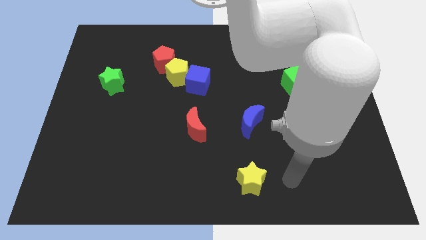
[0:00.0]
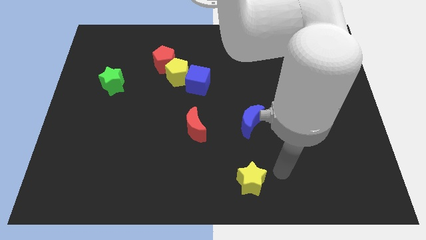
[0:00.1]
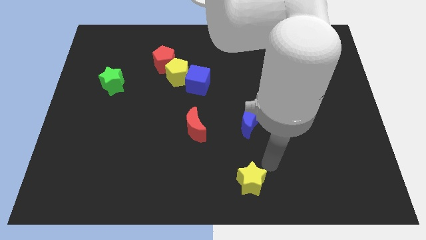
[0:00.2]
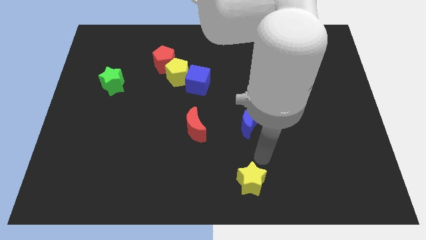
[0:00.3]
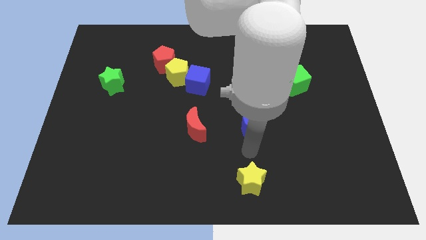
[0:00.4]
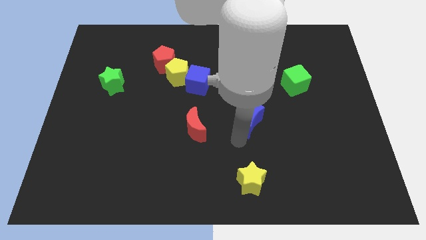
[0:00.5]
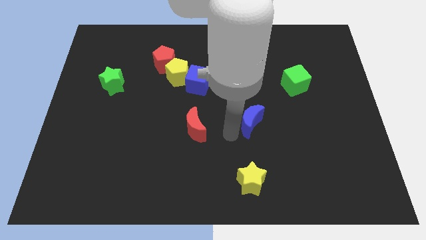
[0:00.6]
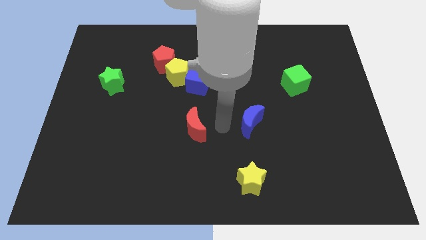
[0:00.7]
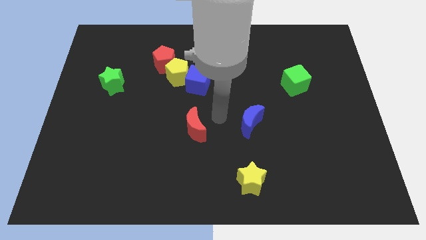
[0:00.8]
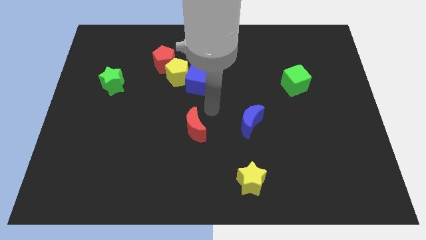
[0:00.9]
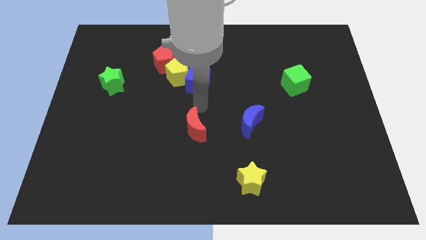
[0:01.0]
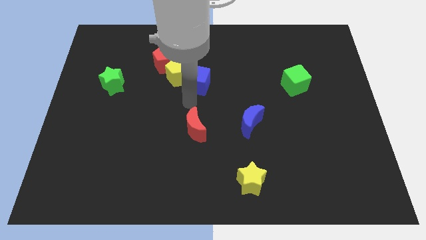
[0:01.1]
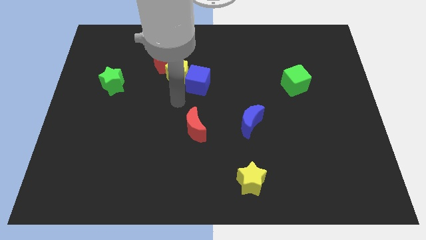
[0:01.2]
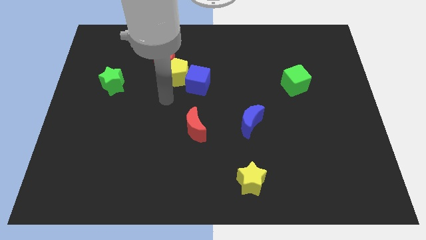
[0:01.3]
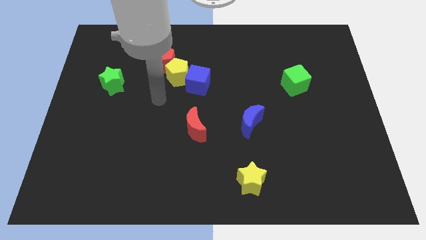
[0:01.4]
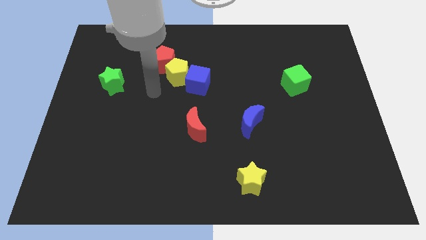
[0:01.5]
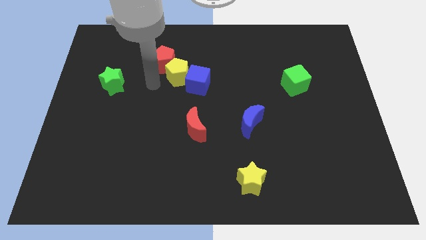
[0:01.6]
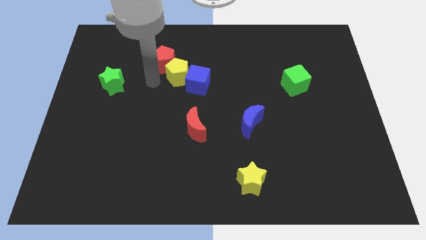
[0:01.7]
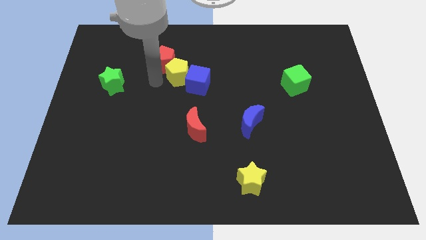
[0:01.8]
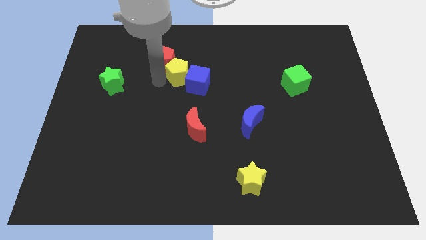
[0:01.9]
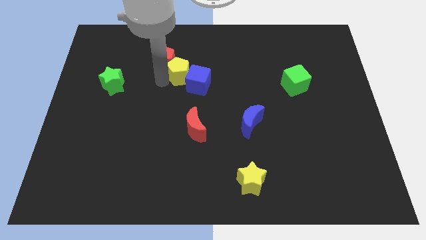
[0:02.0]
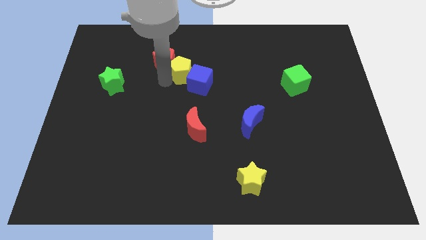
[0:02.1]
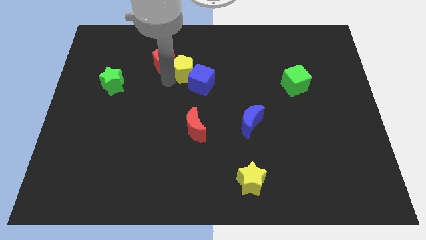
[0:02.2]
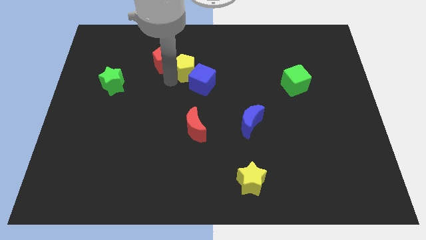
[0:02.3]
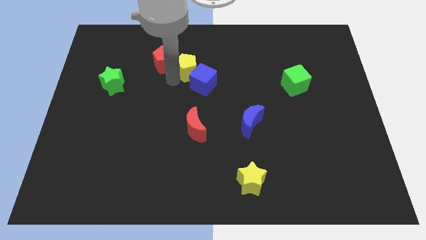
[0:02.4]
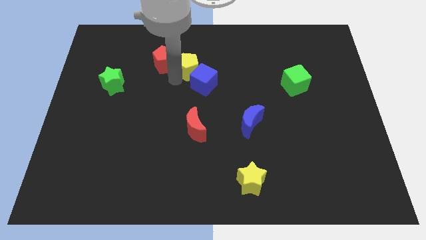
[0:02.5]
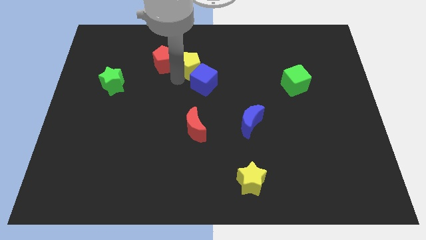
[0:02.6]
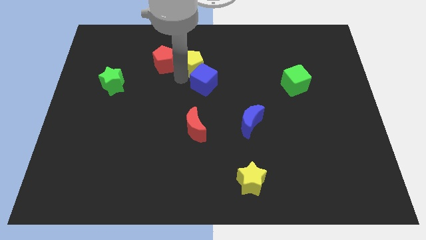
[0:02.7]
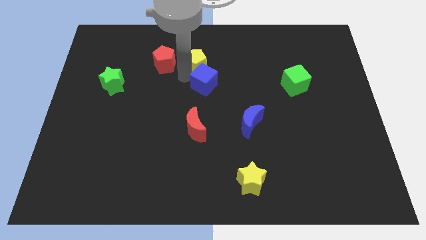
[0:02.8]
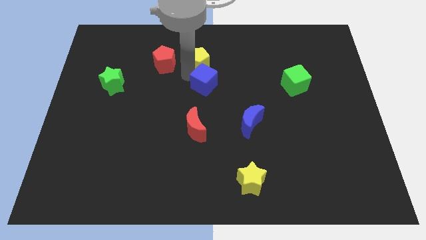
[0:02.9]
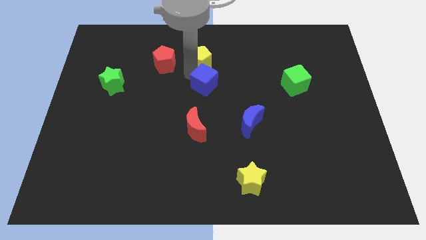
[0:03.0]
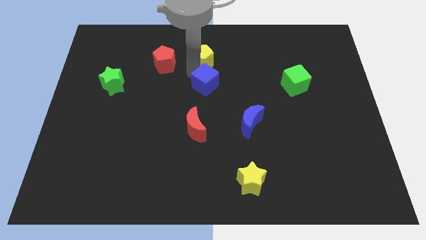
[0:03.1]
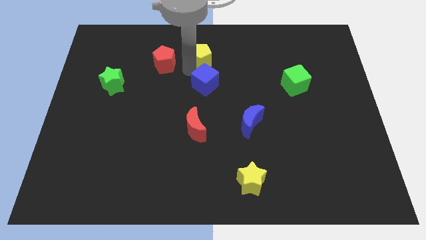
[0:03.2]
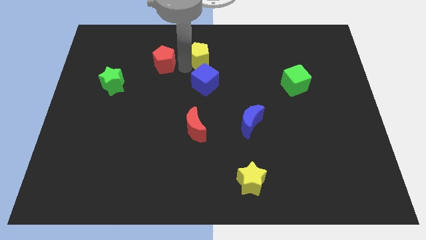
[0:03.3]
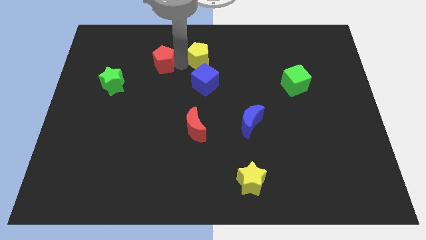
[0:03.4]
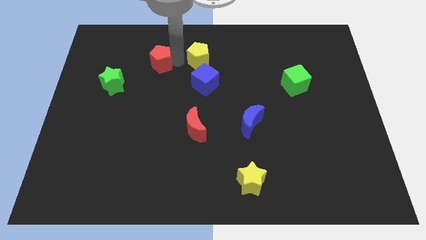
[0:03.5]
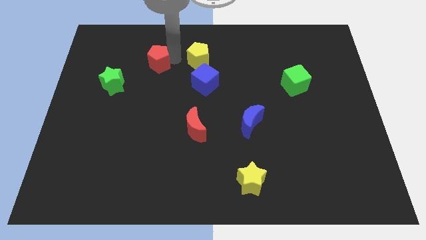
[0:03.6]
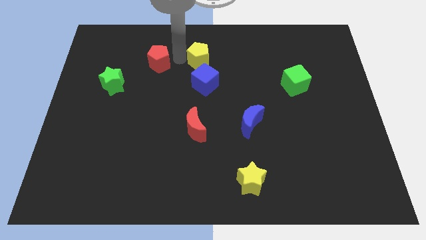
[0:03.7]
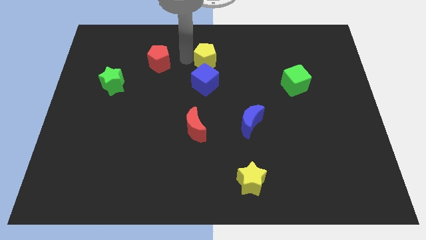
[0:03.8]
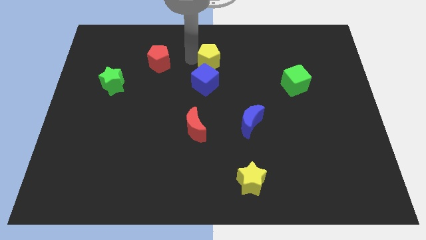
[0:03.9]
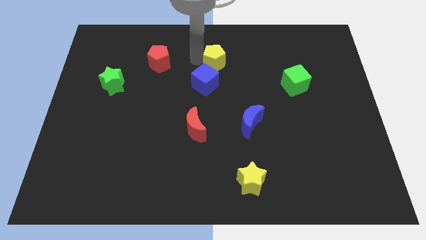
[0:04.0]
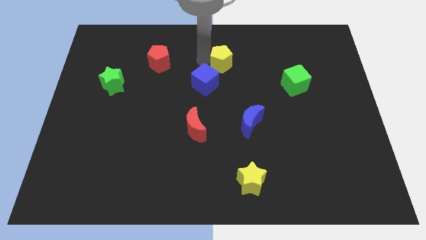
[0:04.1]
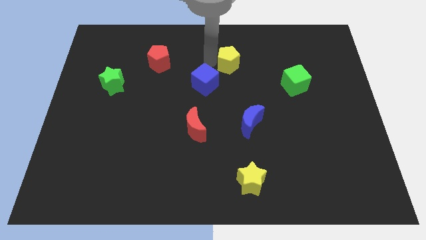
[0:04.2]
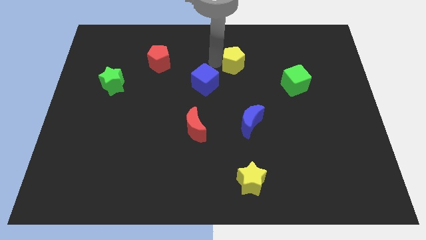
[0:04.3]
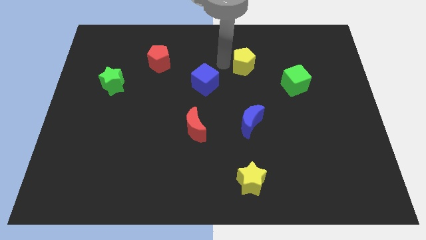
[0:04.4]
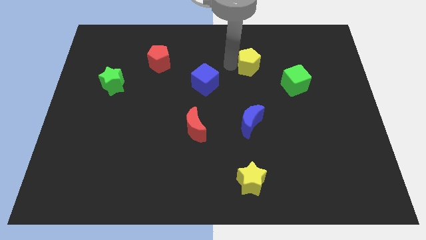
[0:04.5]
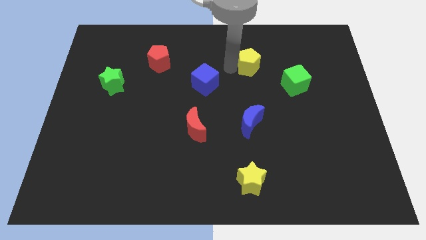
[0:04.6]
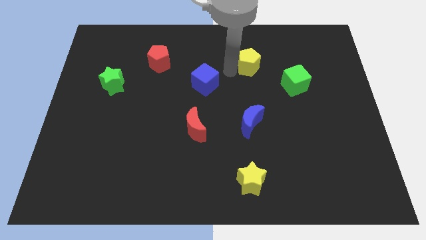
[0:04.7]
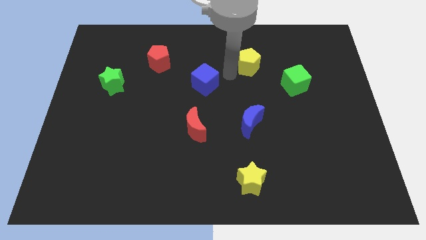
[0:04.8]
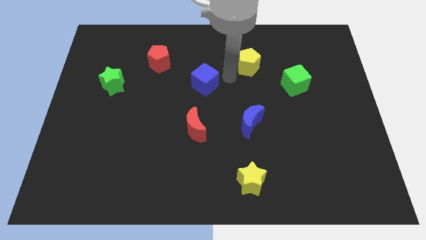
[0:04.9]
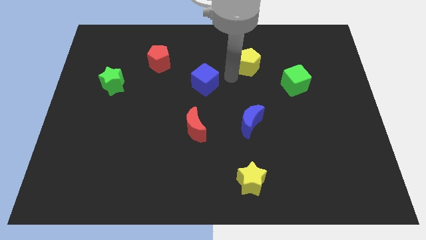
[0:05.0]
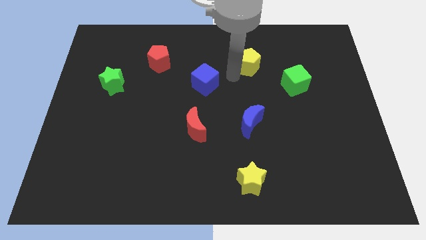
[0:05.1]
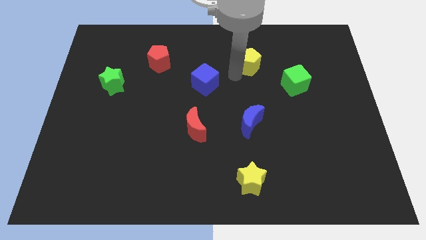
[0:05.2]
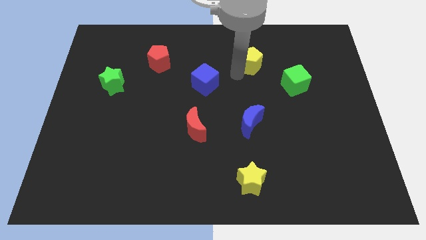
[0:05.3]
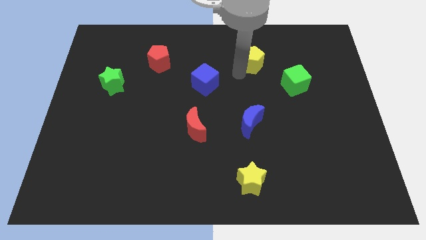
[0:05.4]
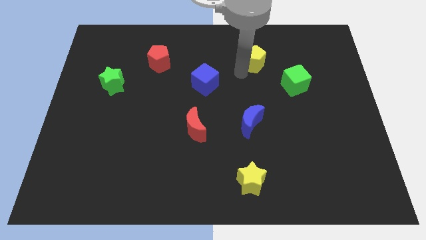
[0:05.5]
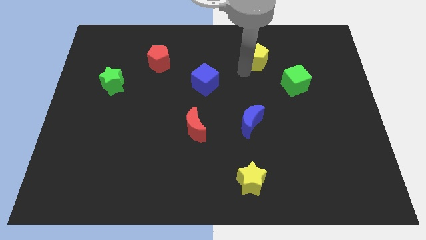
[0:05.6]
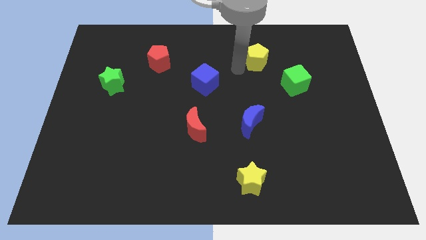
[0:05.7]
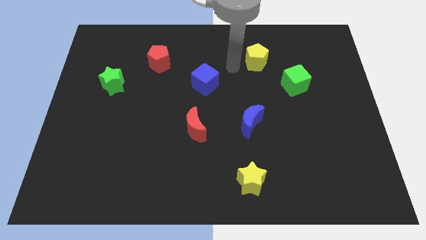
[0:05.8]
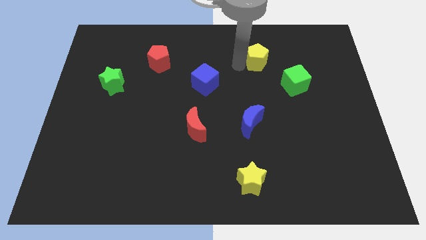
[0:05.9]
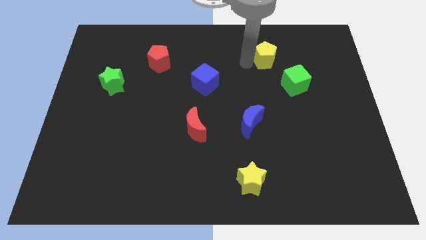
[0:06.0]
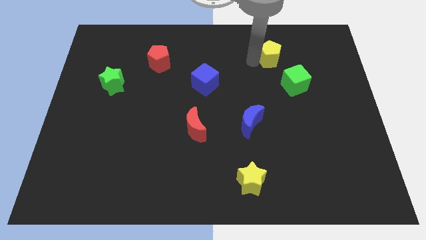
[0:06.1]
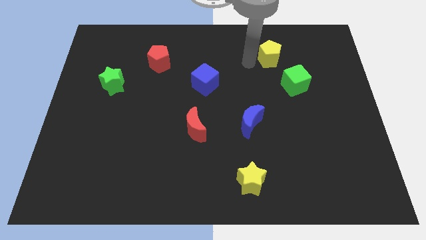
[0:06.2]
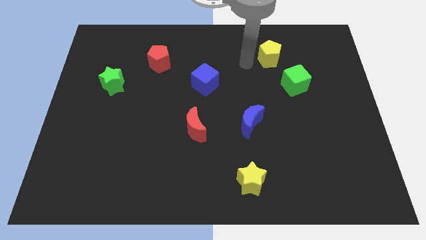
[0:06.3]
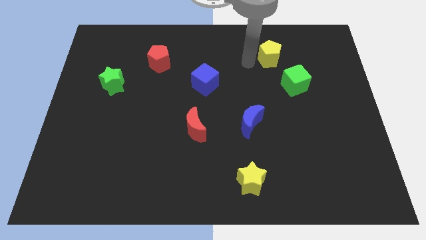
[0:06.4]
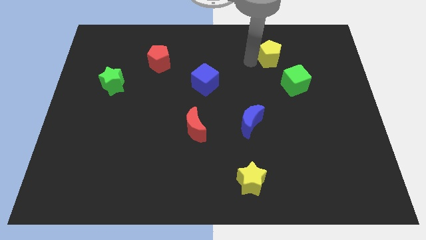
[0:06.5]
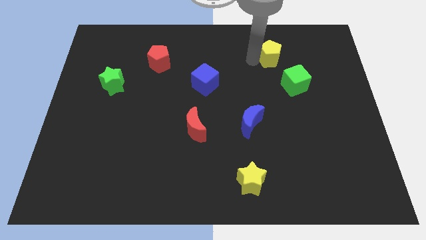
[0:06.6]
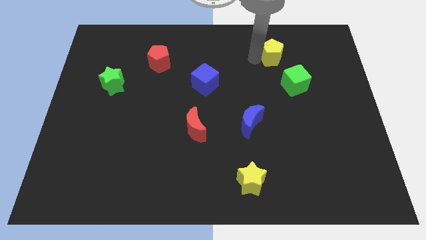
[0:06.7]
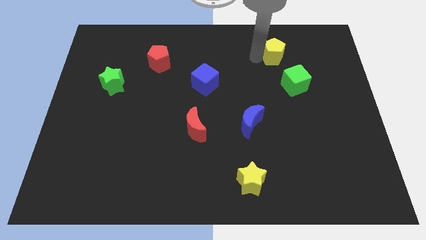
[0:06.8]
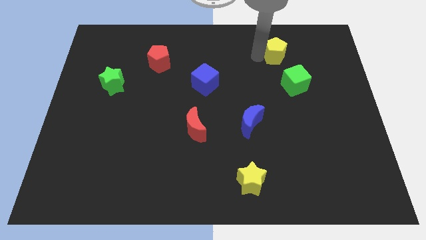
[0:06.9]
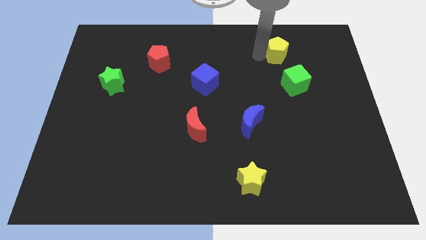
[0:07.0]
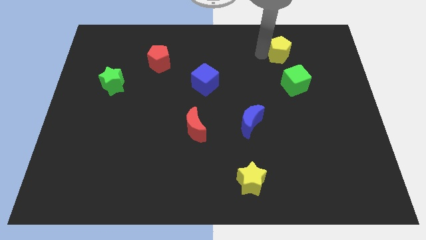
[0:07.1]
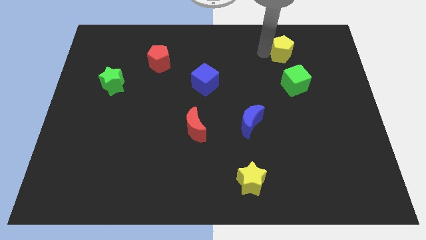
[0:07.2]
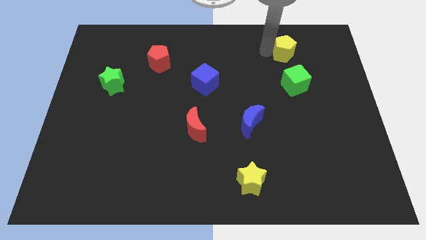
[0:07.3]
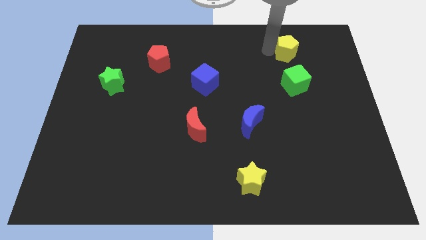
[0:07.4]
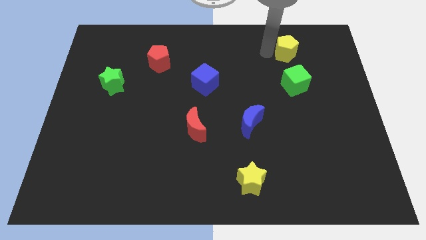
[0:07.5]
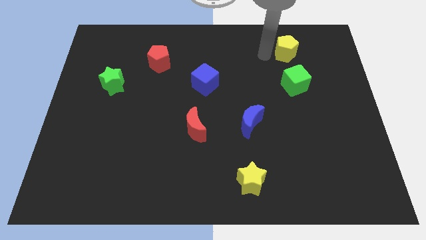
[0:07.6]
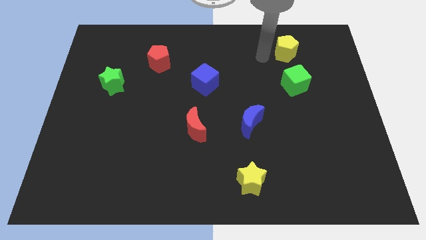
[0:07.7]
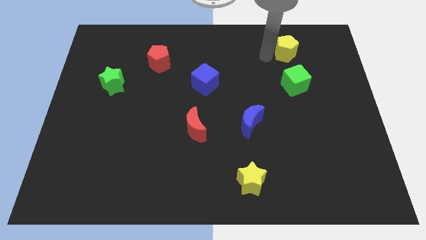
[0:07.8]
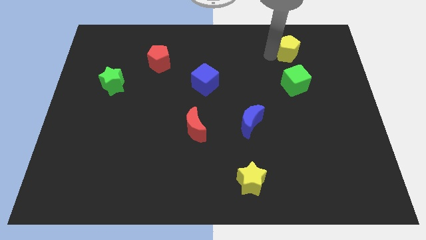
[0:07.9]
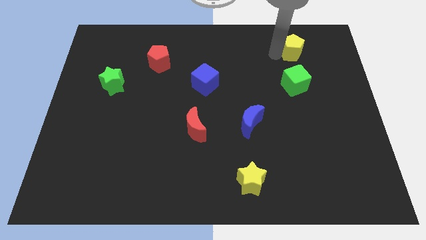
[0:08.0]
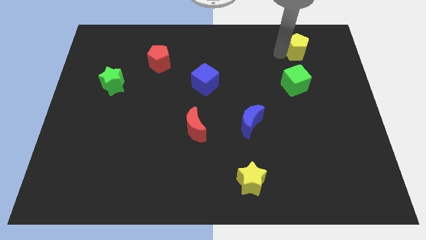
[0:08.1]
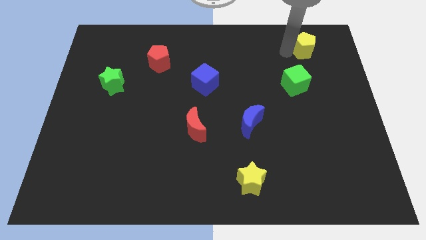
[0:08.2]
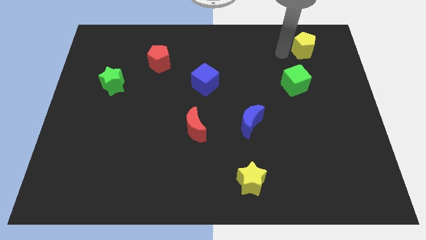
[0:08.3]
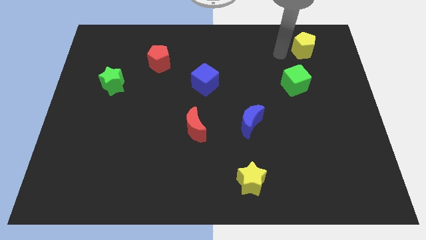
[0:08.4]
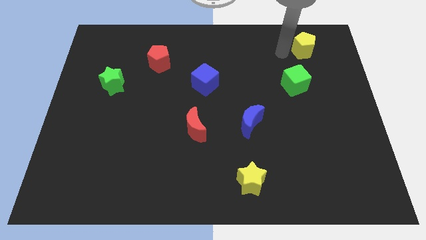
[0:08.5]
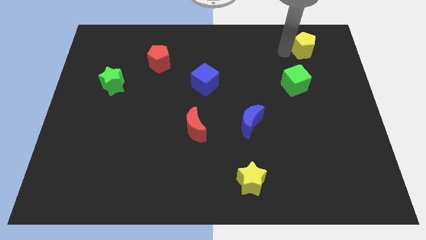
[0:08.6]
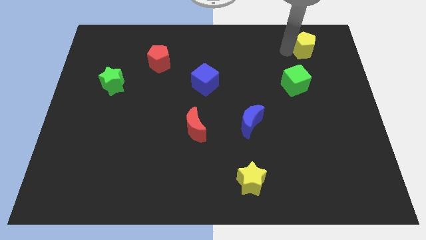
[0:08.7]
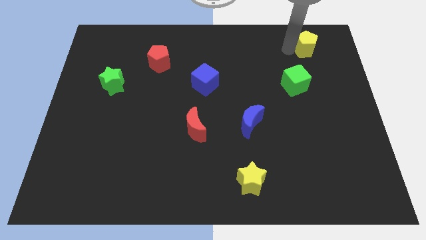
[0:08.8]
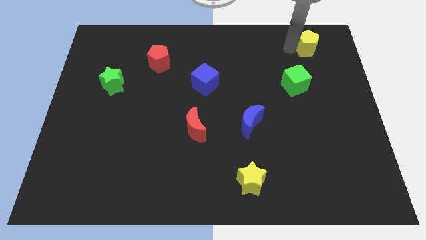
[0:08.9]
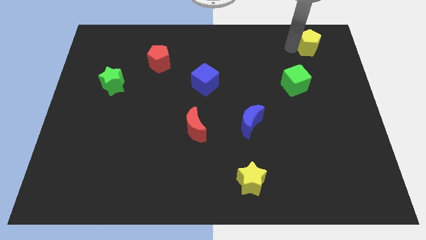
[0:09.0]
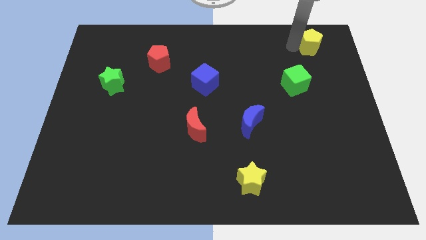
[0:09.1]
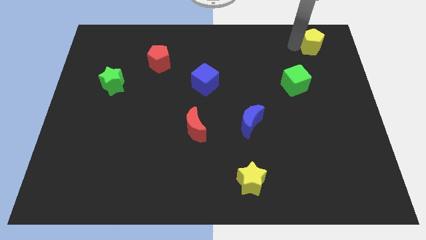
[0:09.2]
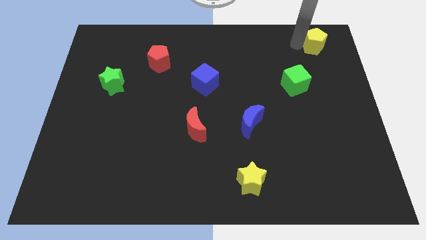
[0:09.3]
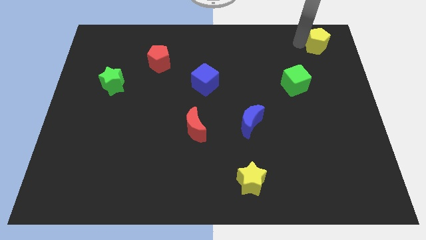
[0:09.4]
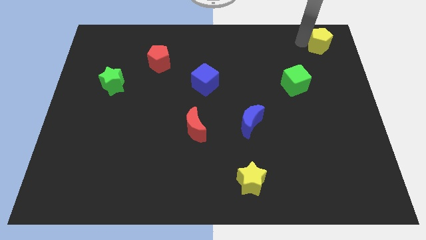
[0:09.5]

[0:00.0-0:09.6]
move the yellow pentagon to the top right of the board
